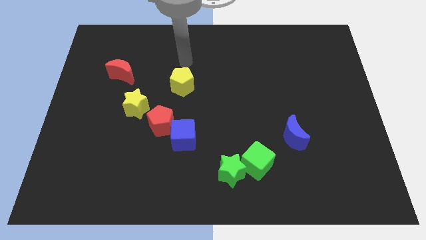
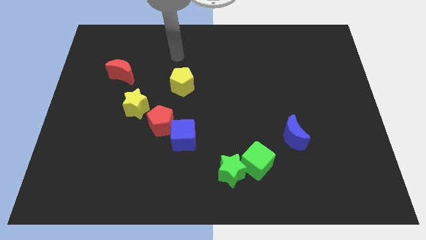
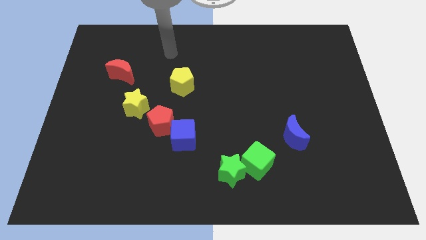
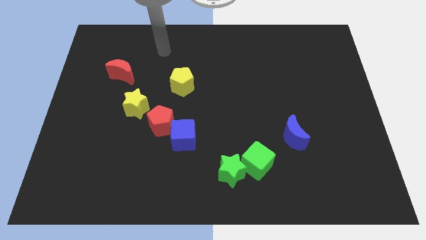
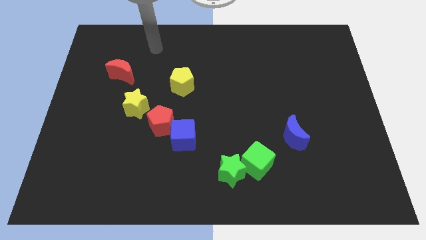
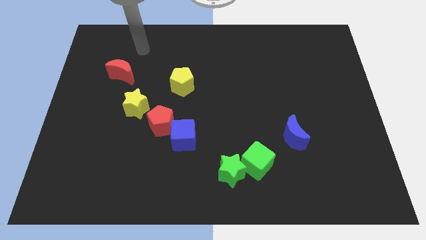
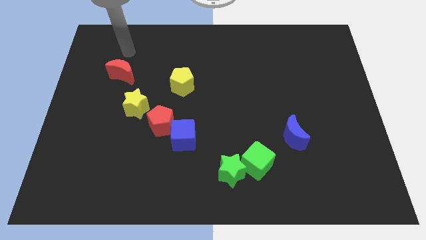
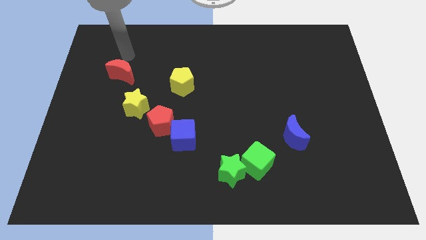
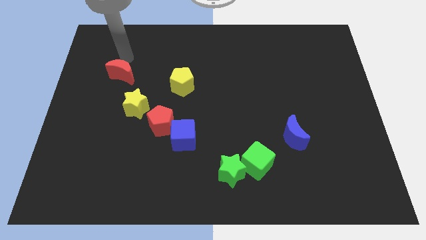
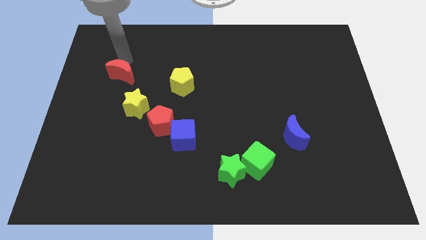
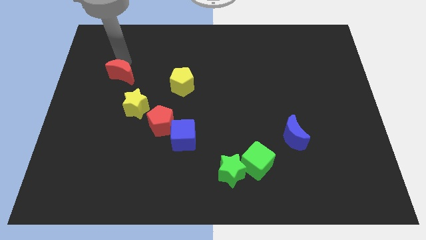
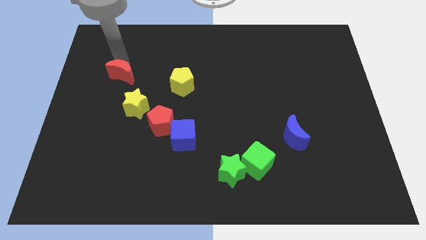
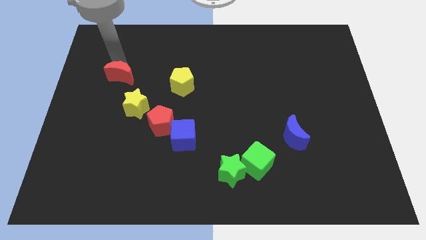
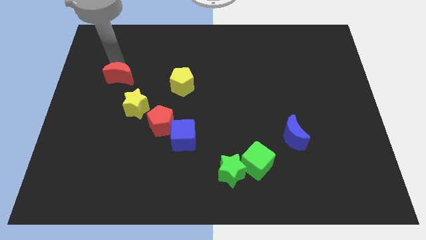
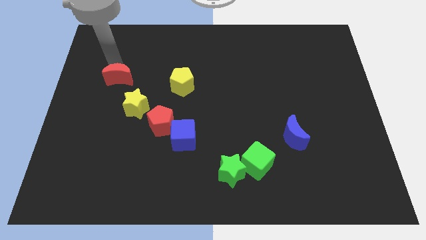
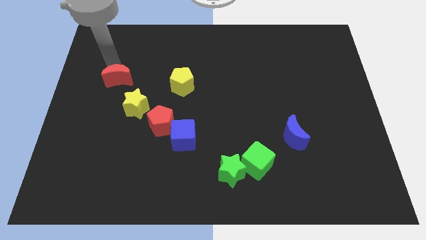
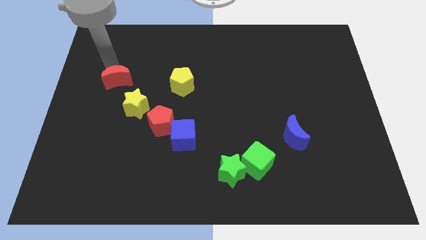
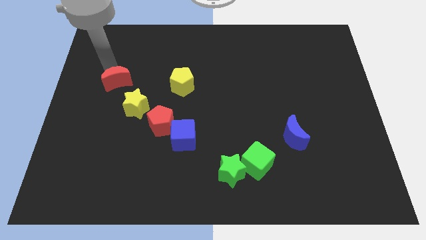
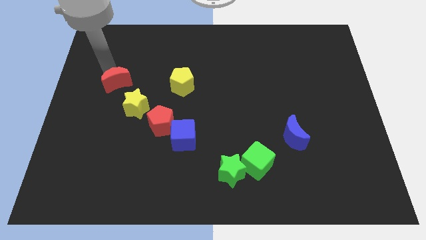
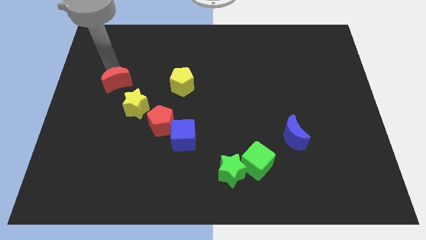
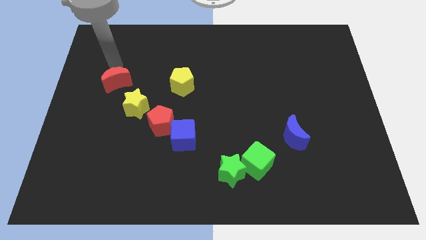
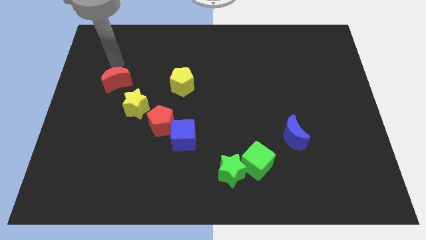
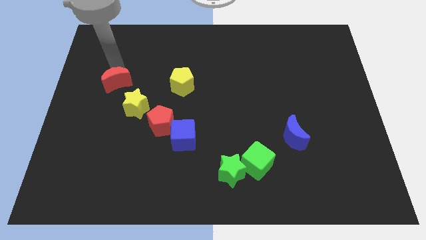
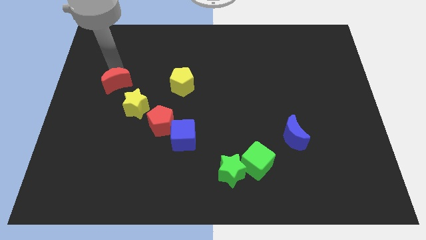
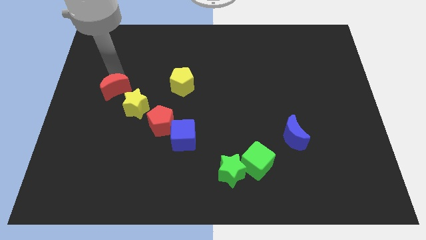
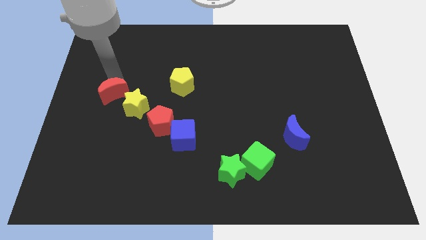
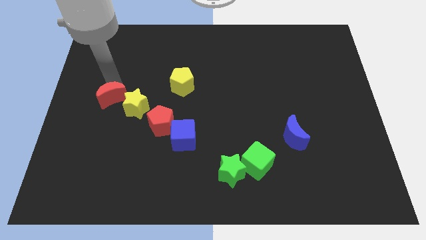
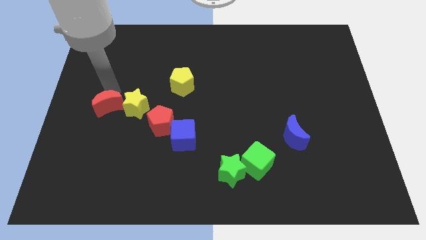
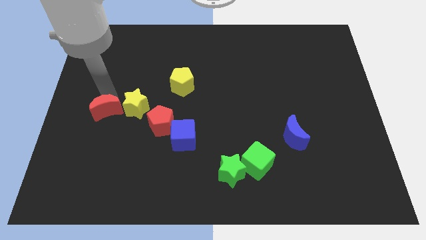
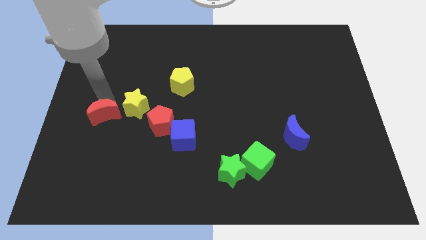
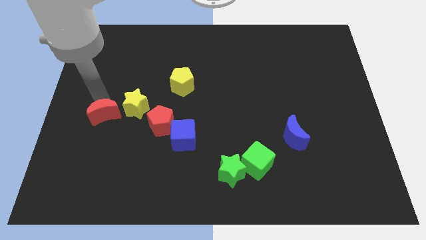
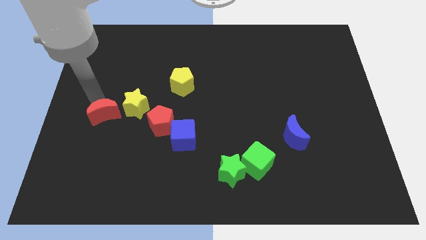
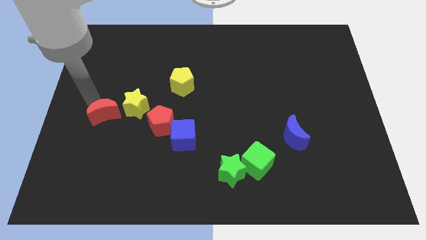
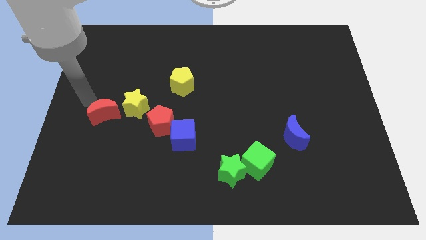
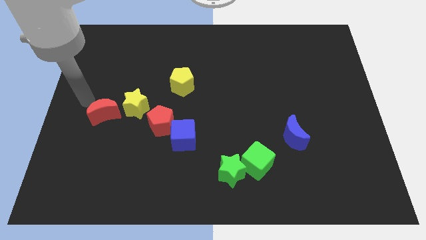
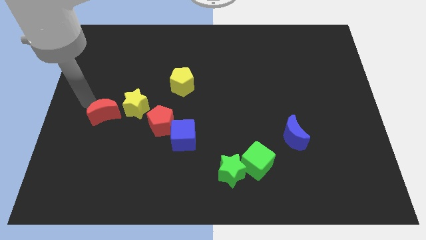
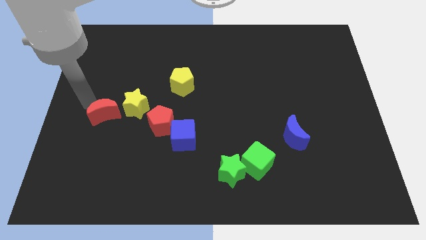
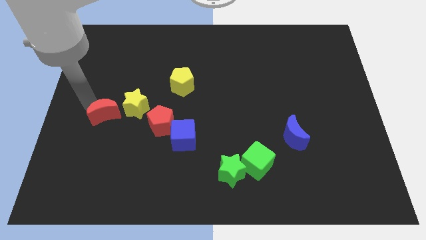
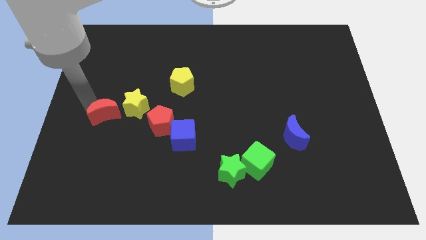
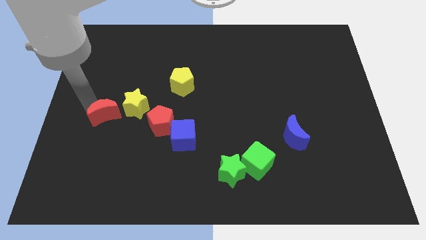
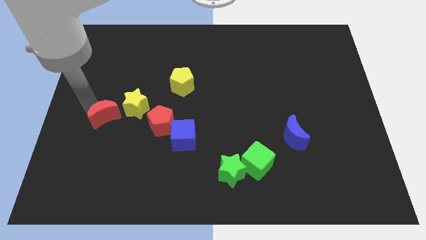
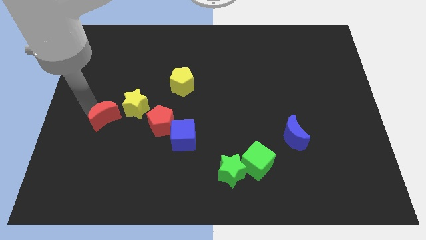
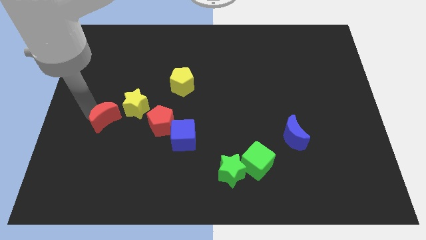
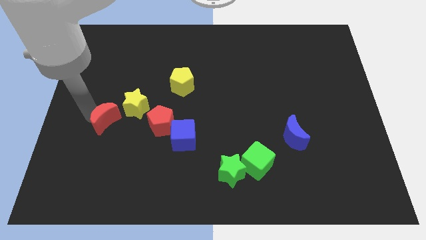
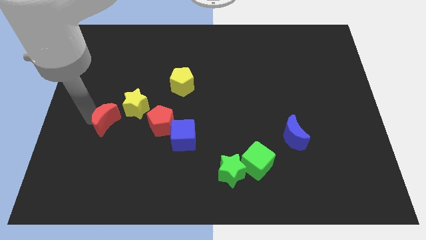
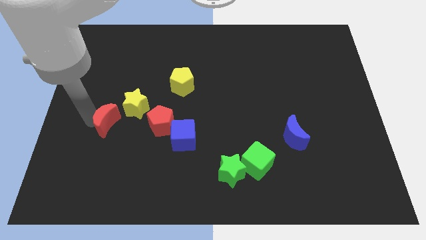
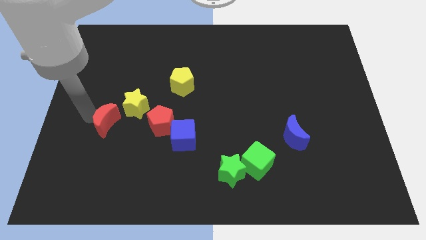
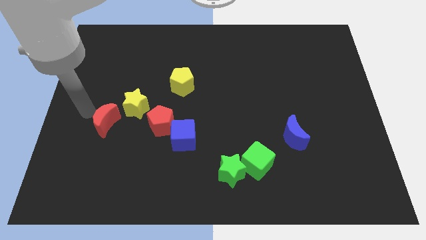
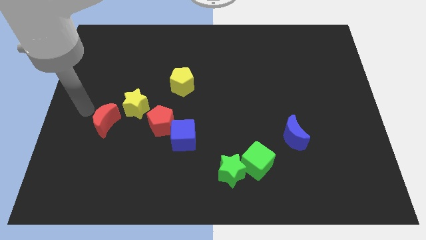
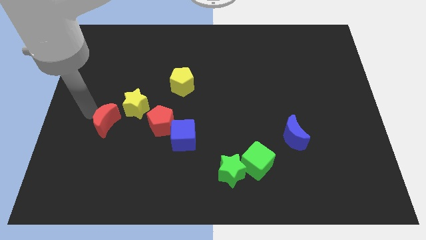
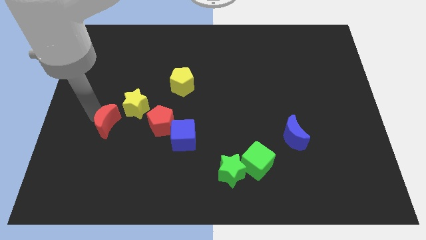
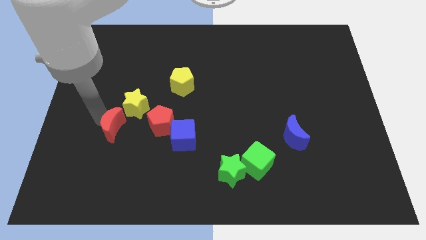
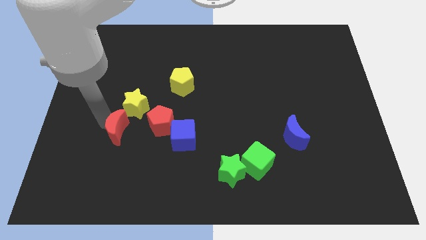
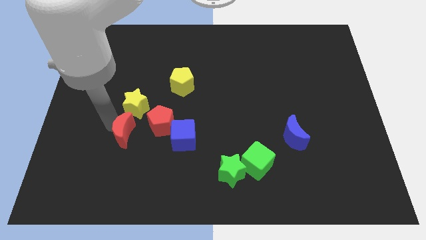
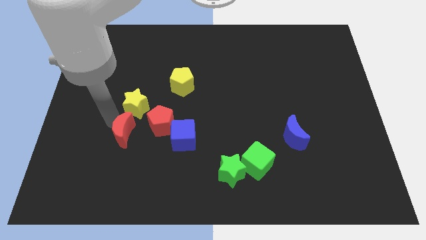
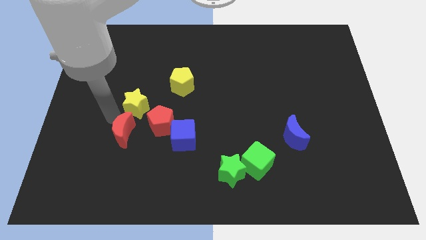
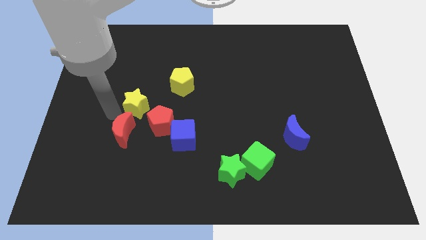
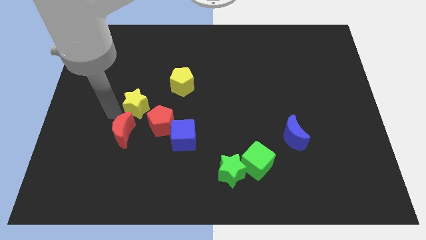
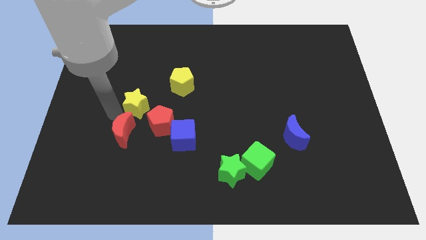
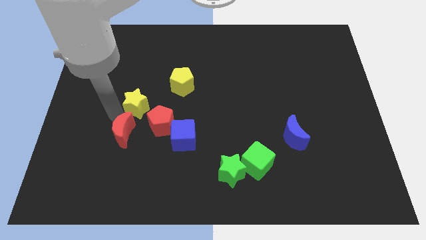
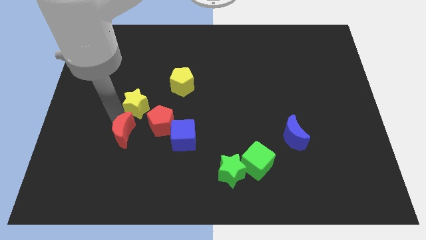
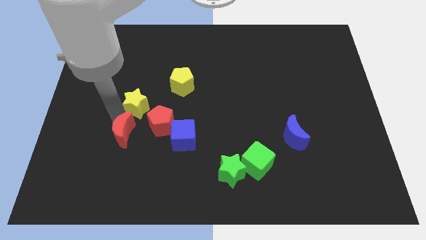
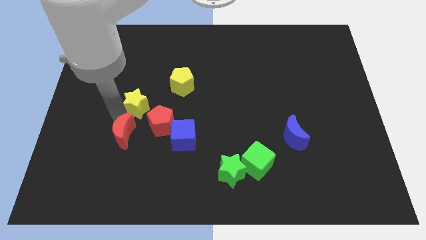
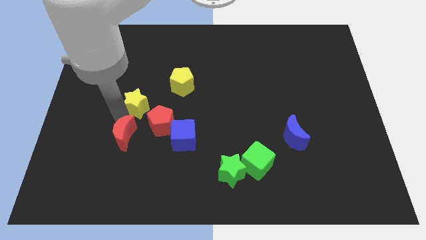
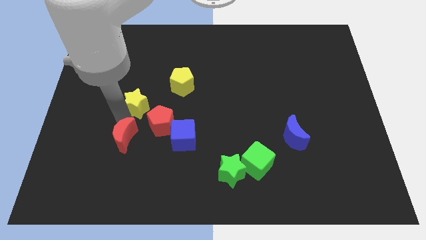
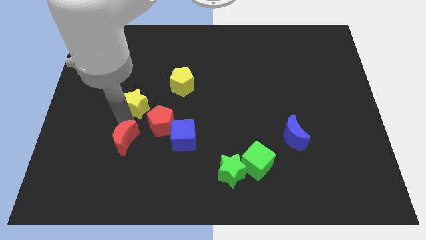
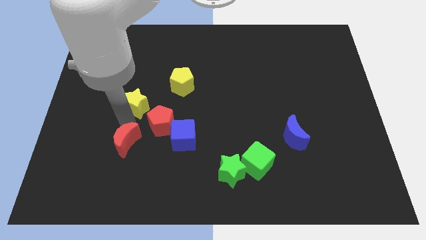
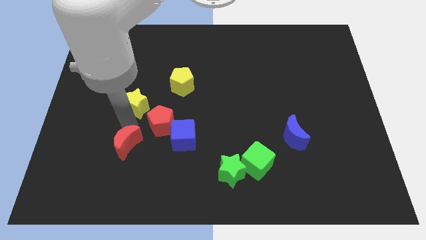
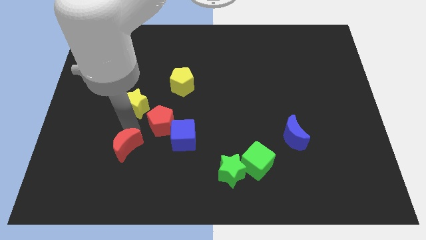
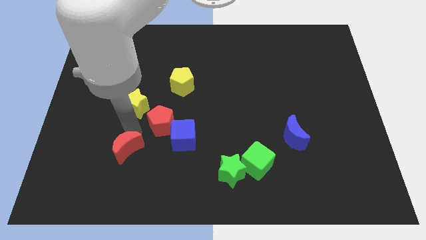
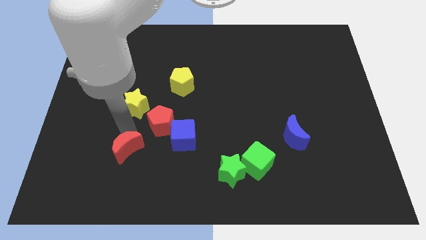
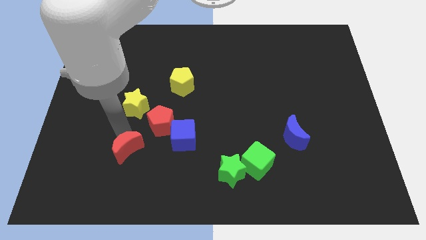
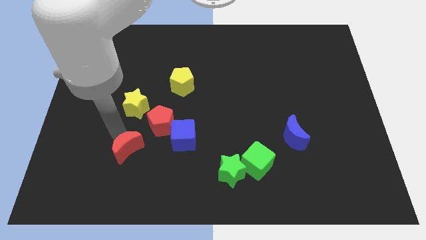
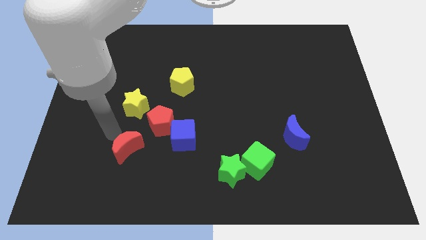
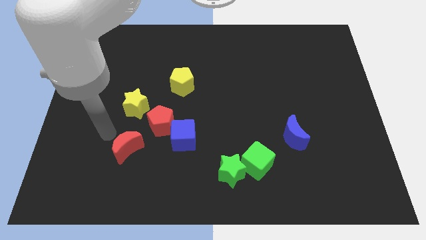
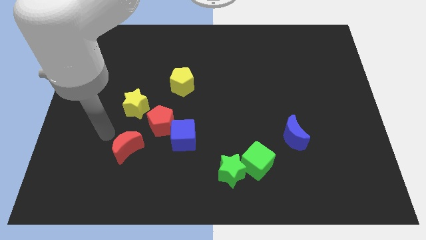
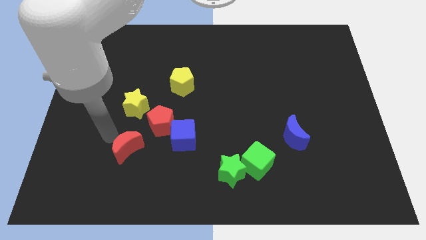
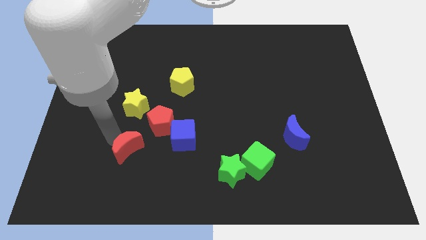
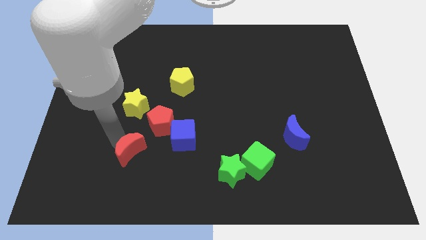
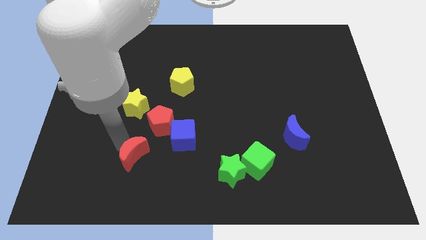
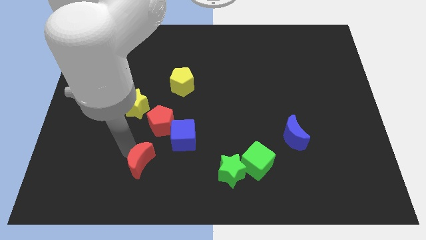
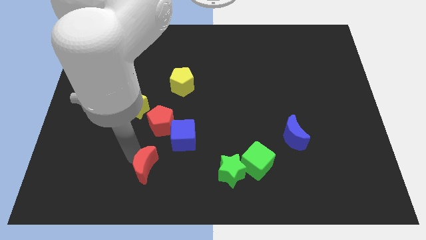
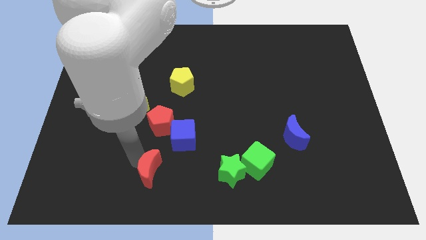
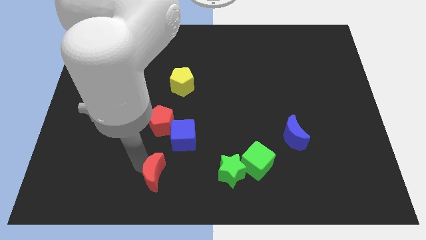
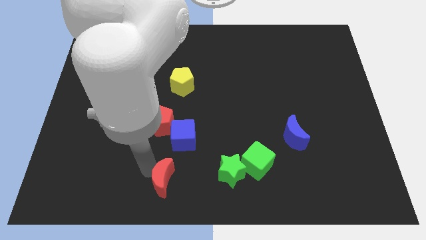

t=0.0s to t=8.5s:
move the red moon to the bottom
